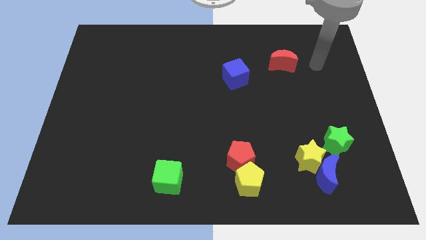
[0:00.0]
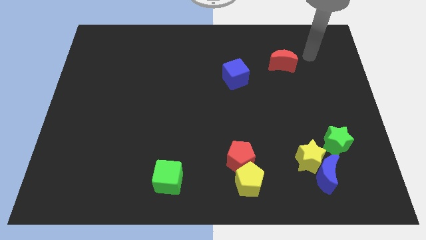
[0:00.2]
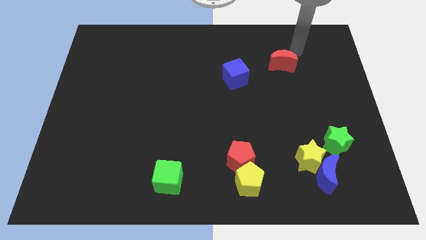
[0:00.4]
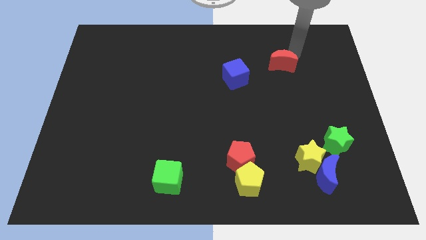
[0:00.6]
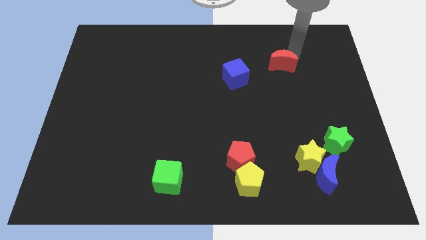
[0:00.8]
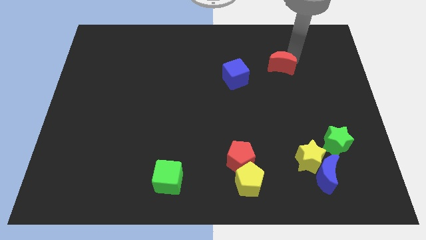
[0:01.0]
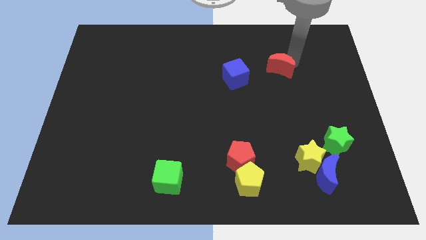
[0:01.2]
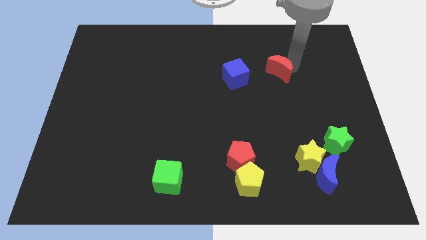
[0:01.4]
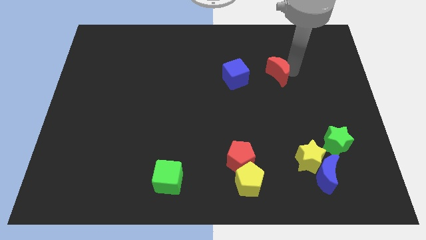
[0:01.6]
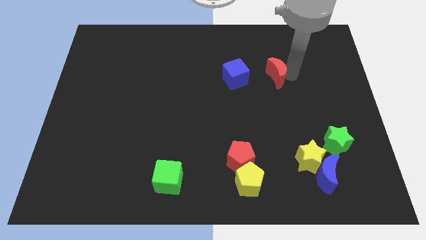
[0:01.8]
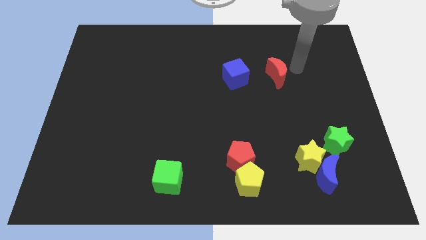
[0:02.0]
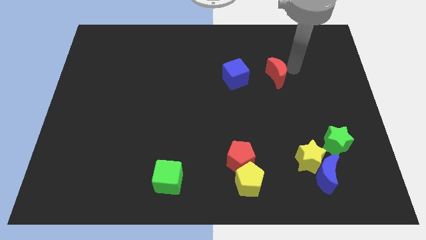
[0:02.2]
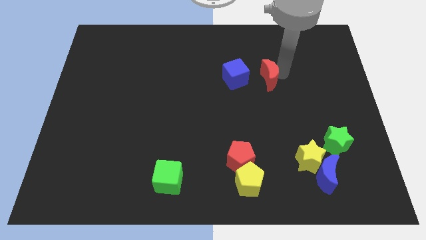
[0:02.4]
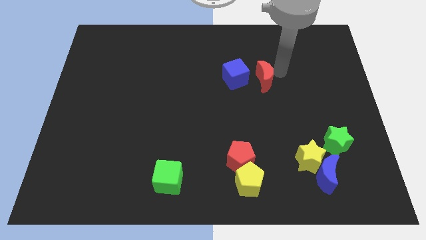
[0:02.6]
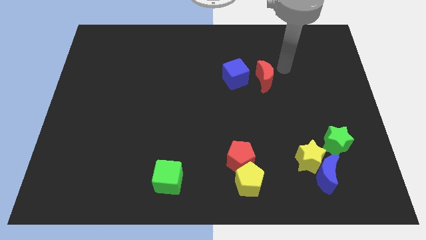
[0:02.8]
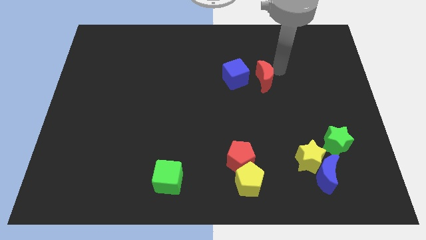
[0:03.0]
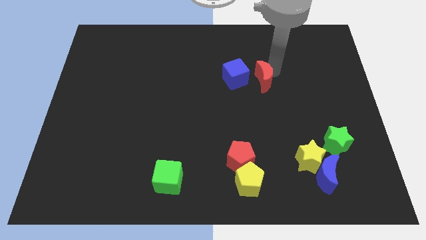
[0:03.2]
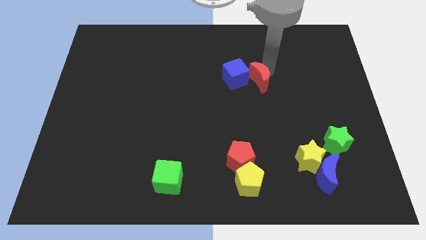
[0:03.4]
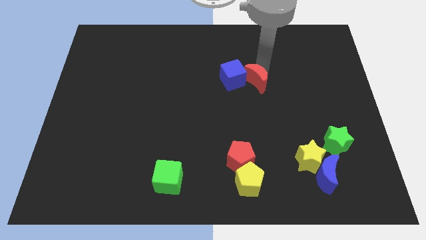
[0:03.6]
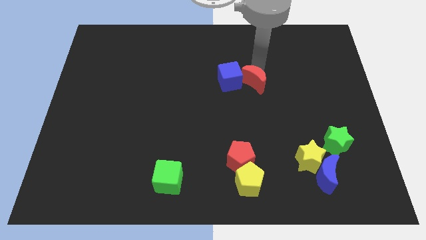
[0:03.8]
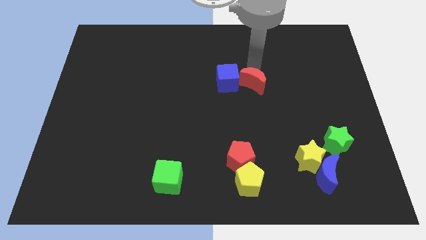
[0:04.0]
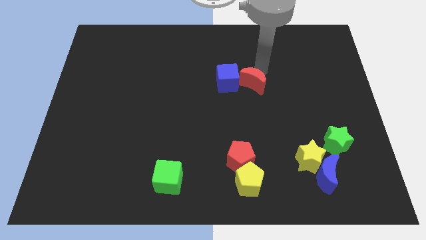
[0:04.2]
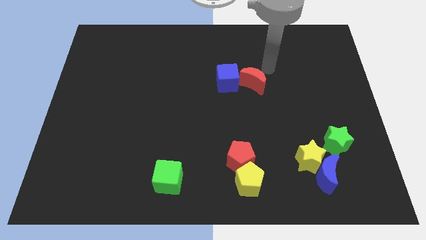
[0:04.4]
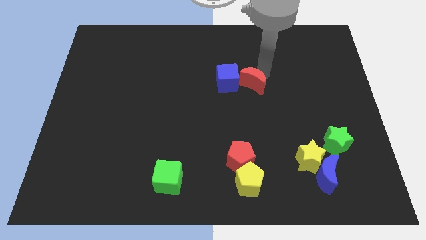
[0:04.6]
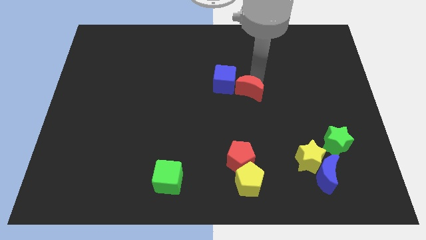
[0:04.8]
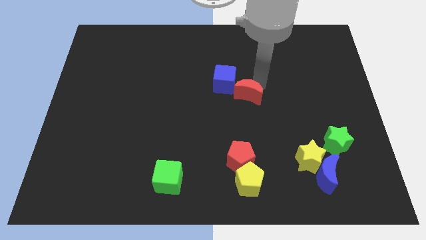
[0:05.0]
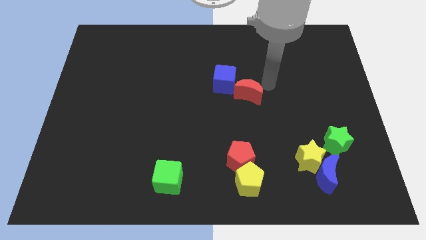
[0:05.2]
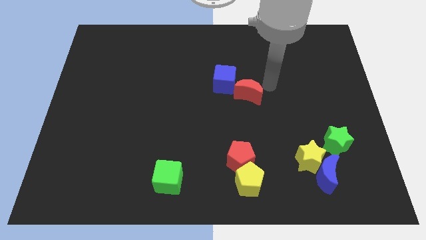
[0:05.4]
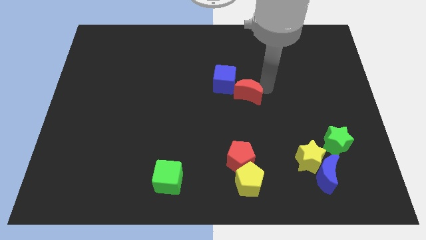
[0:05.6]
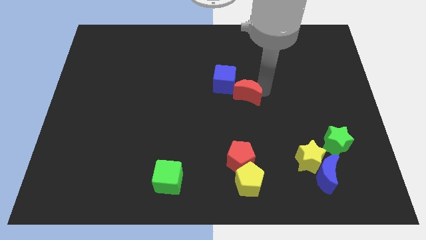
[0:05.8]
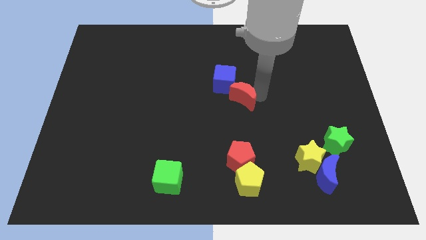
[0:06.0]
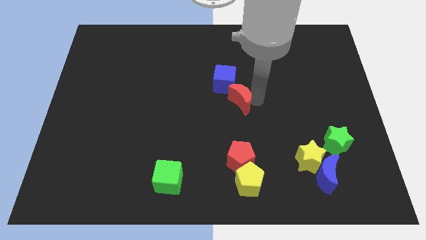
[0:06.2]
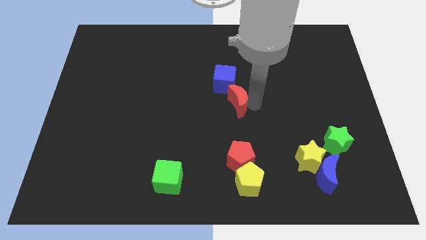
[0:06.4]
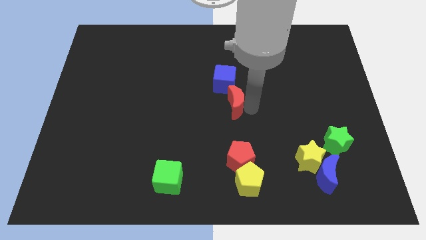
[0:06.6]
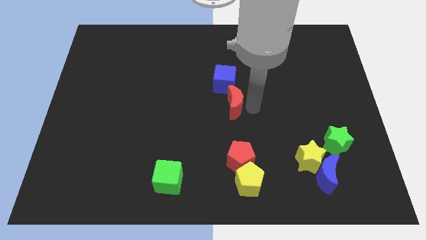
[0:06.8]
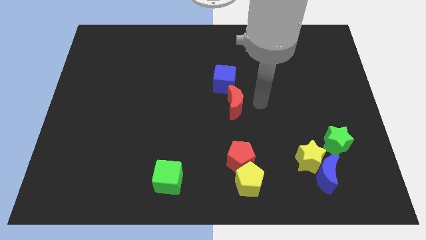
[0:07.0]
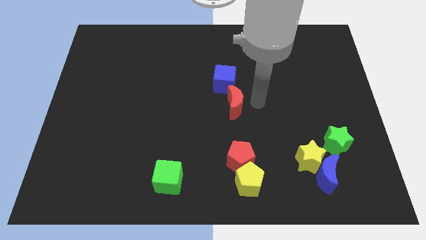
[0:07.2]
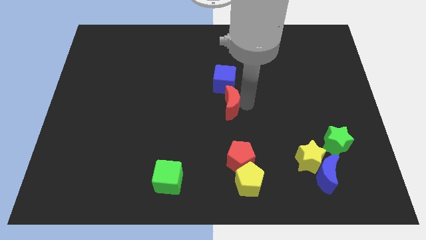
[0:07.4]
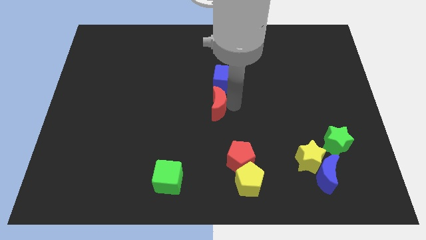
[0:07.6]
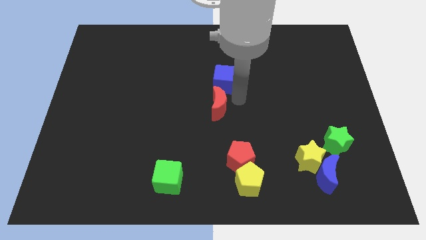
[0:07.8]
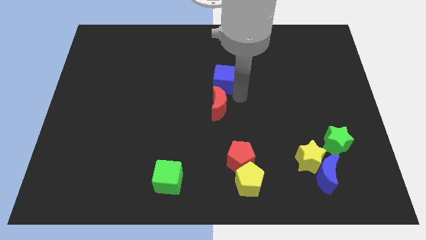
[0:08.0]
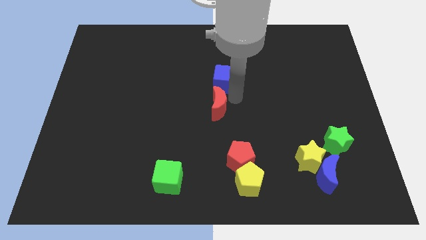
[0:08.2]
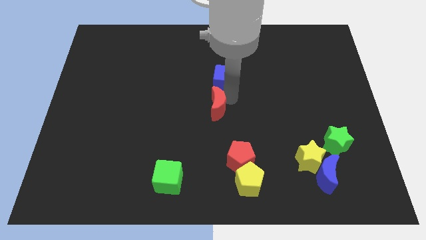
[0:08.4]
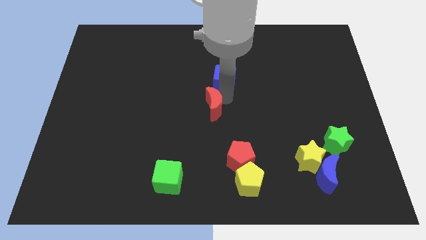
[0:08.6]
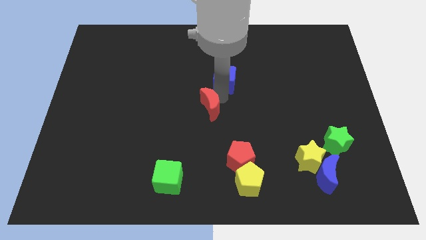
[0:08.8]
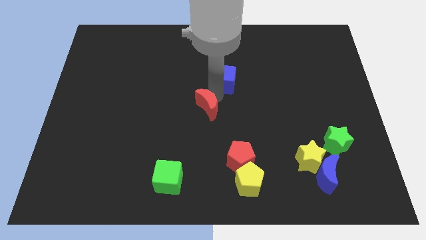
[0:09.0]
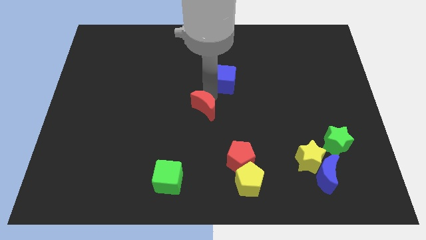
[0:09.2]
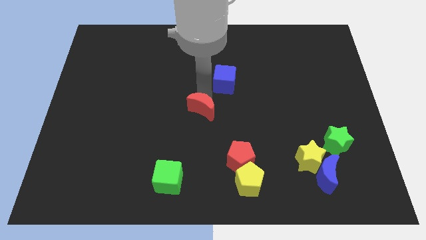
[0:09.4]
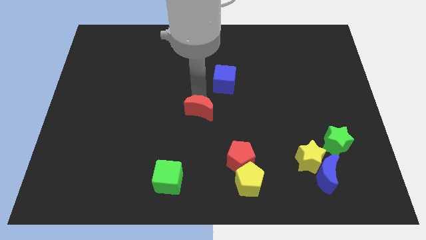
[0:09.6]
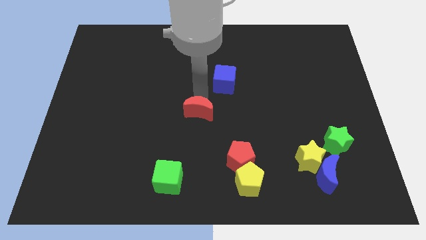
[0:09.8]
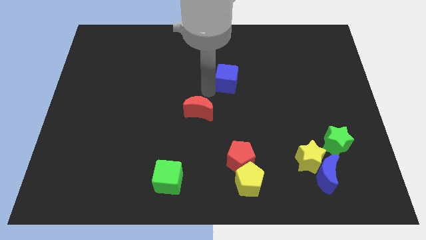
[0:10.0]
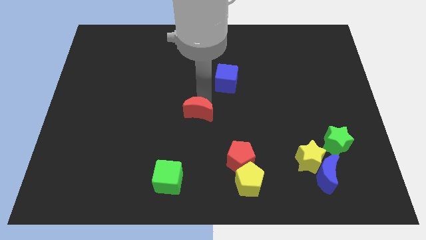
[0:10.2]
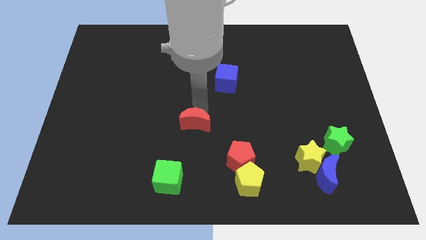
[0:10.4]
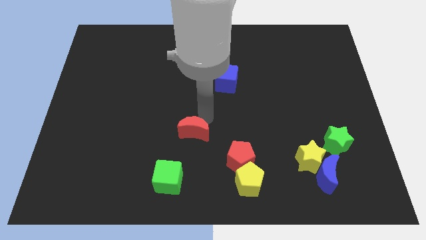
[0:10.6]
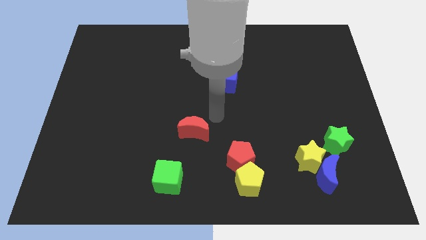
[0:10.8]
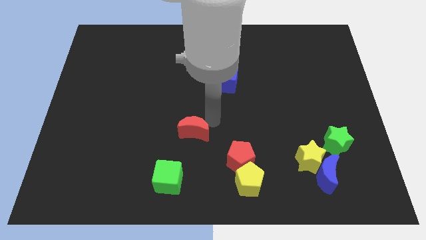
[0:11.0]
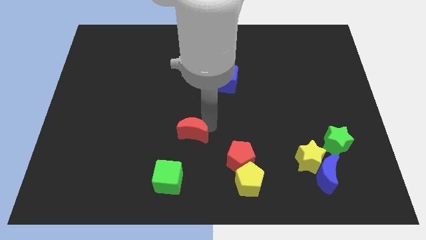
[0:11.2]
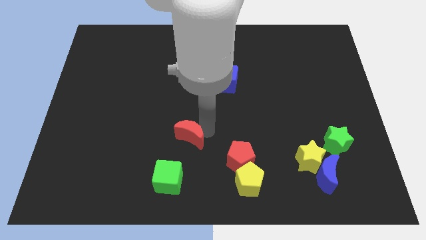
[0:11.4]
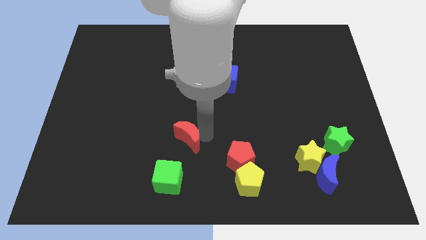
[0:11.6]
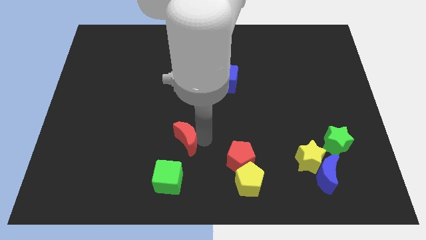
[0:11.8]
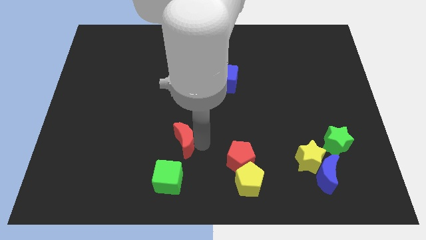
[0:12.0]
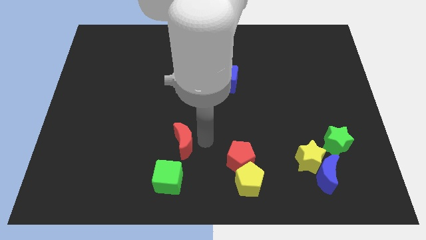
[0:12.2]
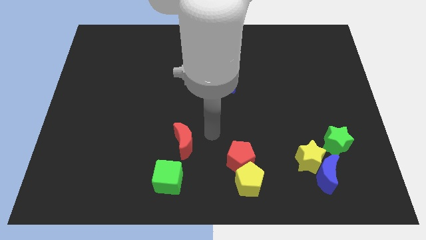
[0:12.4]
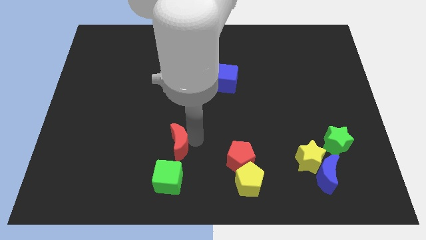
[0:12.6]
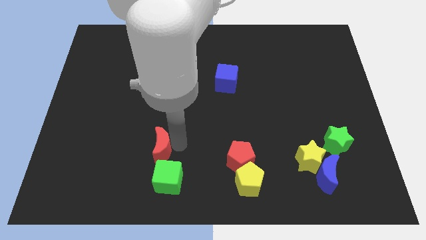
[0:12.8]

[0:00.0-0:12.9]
push the red moon to the top left side of the green cube

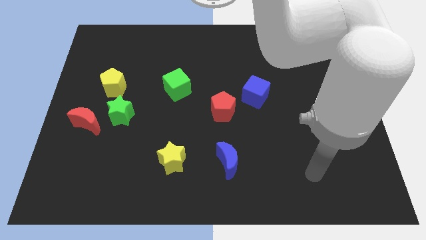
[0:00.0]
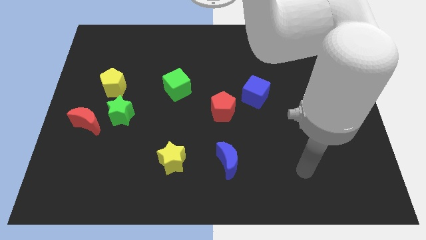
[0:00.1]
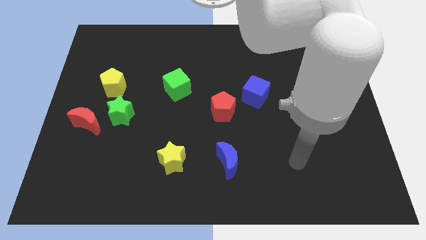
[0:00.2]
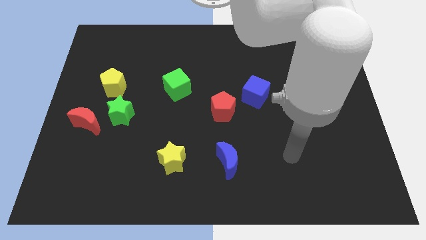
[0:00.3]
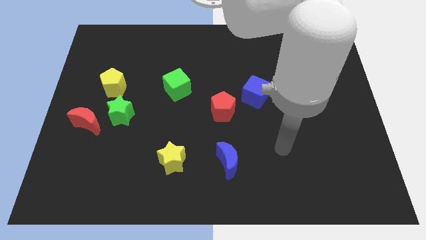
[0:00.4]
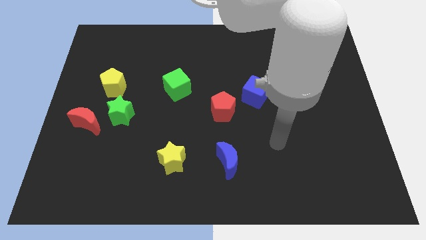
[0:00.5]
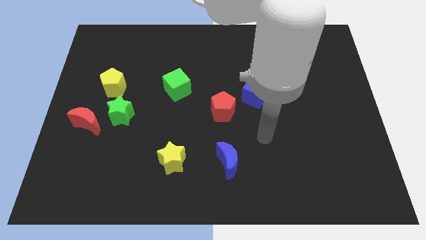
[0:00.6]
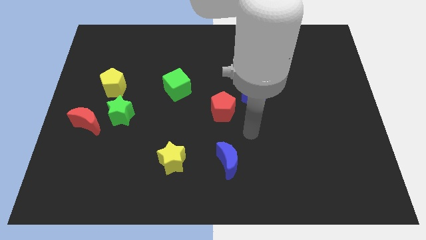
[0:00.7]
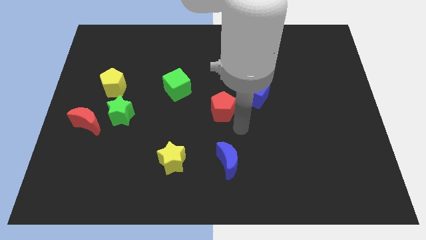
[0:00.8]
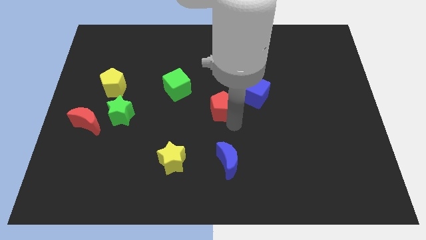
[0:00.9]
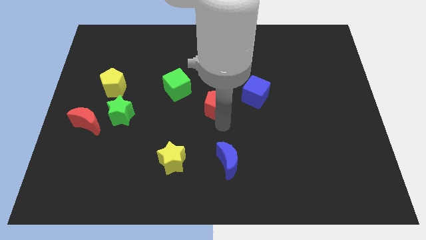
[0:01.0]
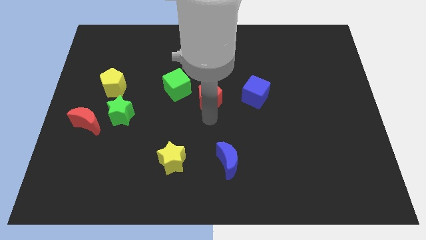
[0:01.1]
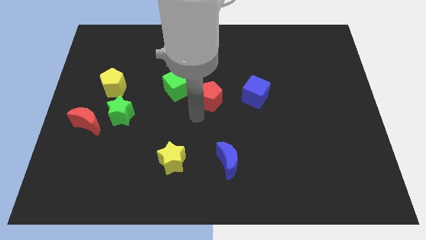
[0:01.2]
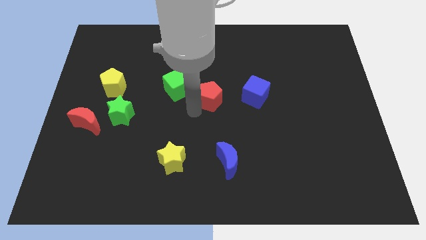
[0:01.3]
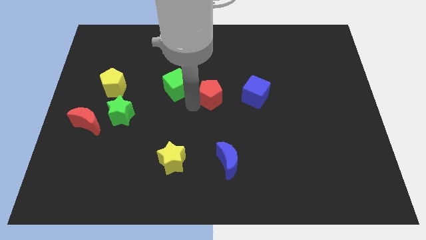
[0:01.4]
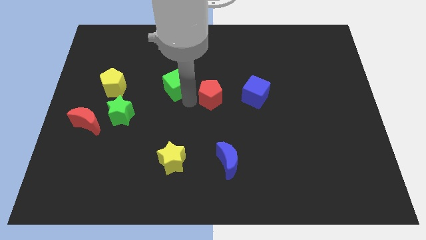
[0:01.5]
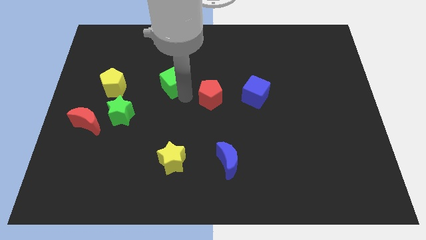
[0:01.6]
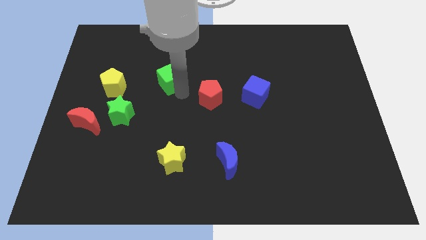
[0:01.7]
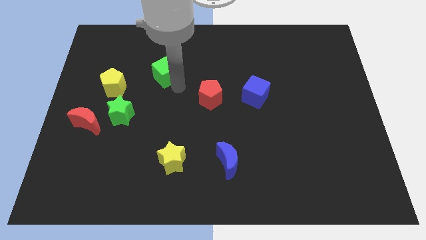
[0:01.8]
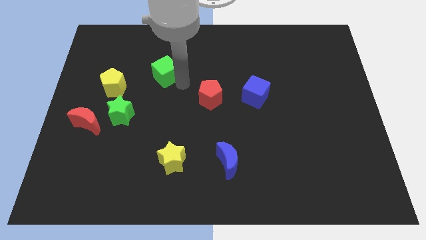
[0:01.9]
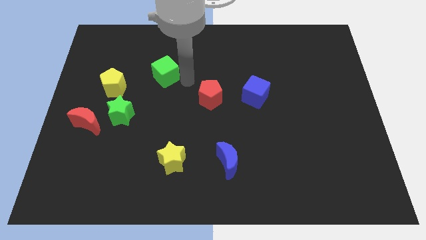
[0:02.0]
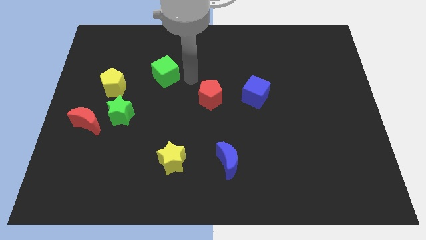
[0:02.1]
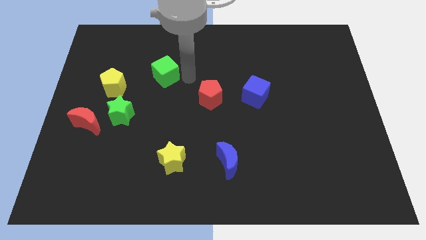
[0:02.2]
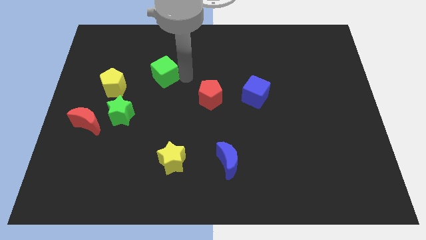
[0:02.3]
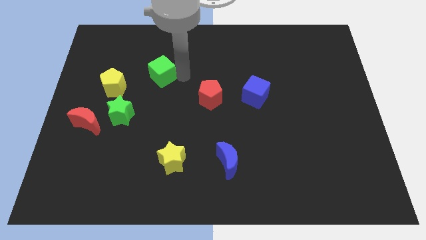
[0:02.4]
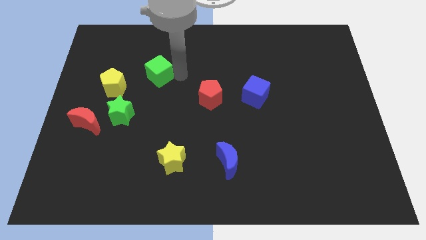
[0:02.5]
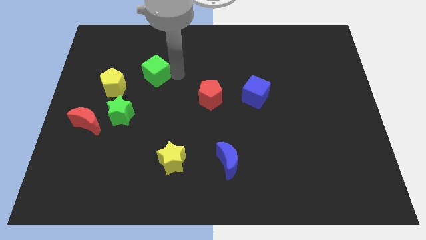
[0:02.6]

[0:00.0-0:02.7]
push the green cube to the top right of the yellow pentagon
